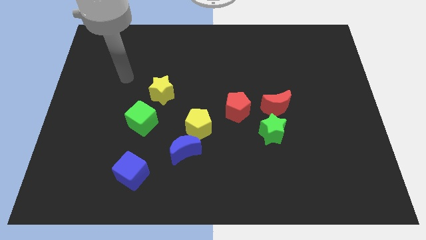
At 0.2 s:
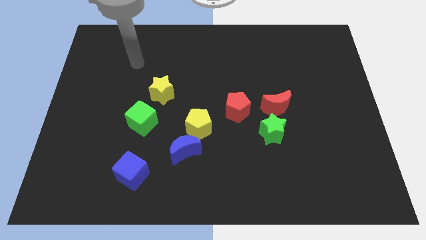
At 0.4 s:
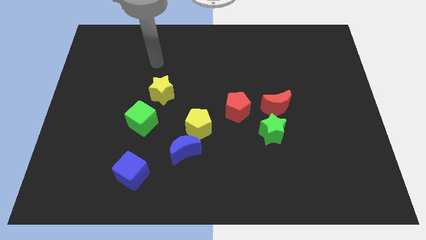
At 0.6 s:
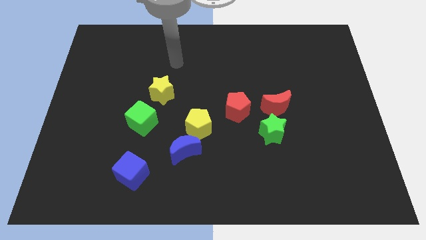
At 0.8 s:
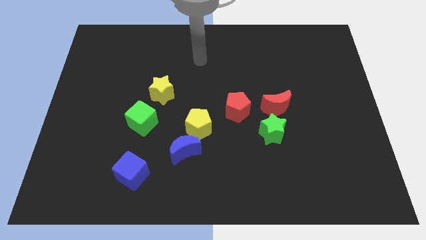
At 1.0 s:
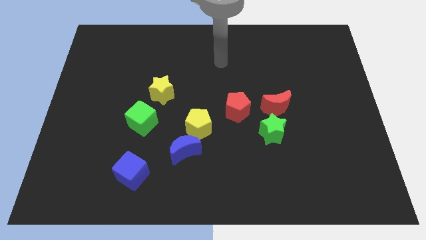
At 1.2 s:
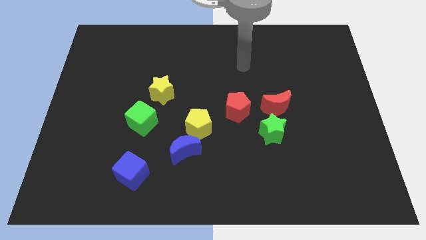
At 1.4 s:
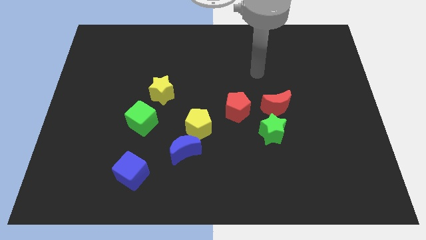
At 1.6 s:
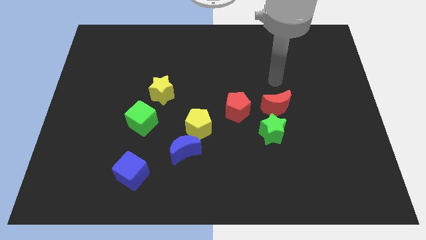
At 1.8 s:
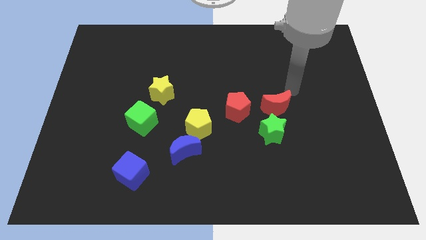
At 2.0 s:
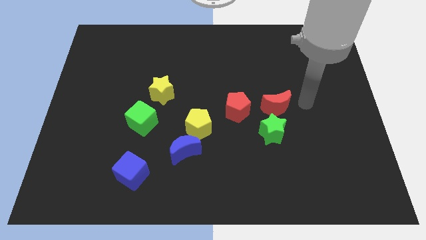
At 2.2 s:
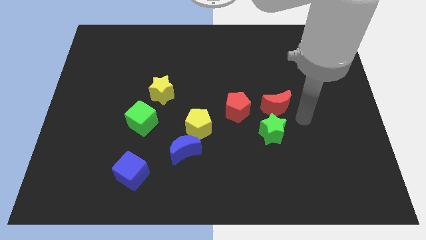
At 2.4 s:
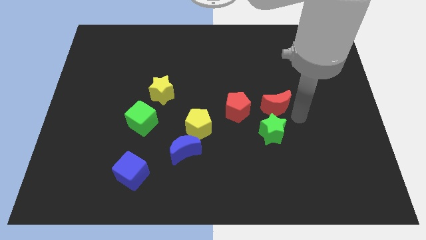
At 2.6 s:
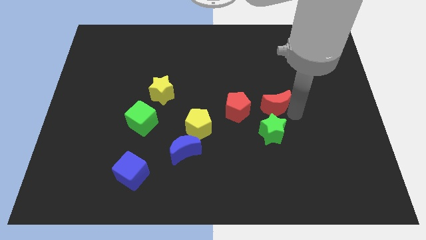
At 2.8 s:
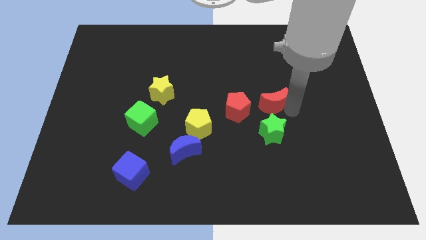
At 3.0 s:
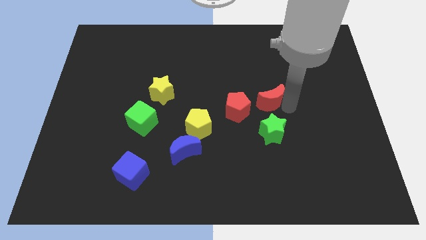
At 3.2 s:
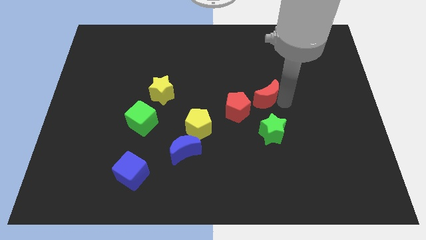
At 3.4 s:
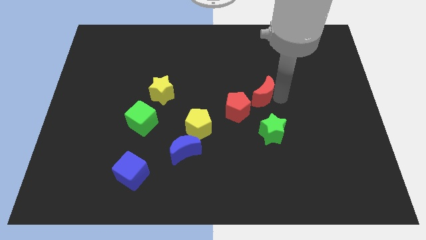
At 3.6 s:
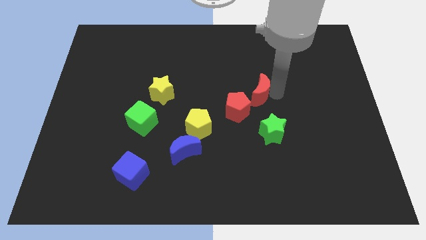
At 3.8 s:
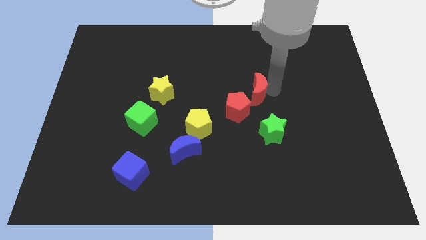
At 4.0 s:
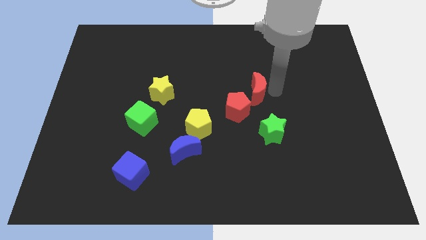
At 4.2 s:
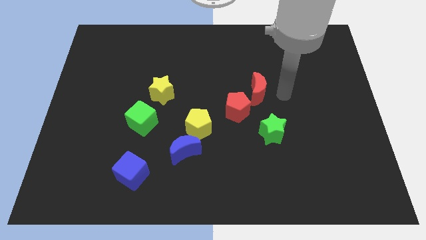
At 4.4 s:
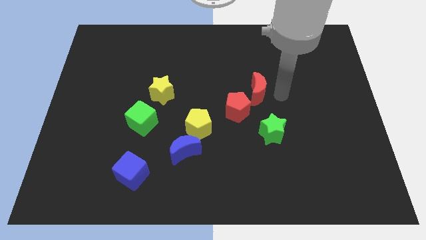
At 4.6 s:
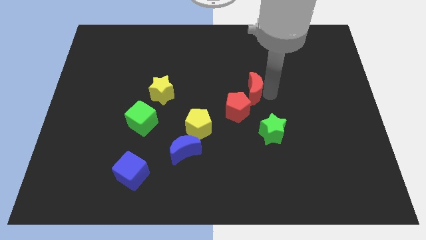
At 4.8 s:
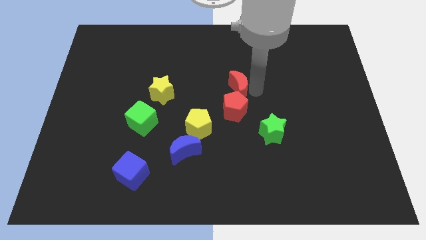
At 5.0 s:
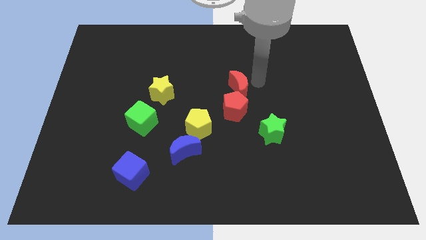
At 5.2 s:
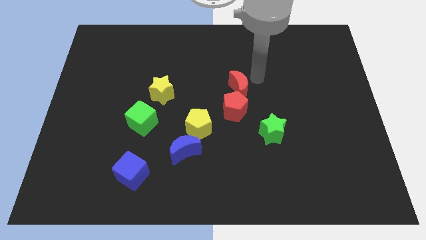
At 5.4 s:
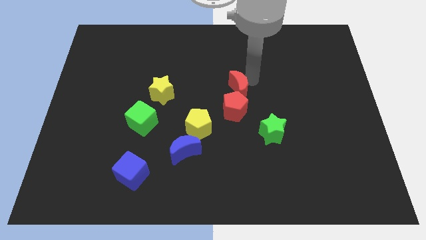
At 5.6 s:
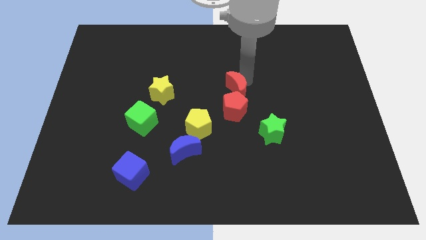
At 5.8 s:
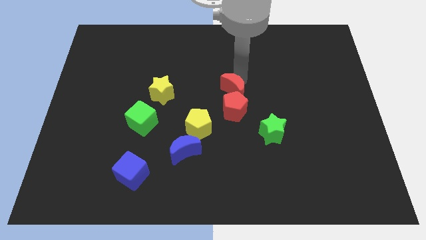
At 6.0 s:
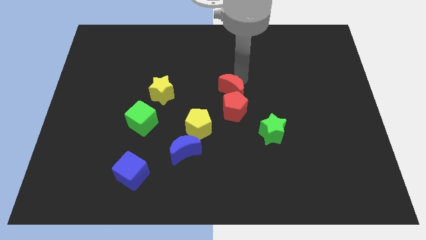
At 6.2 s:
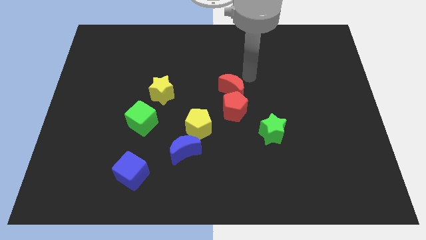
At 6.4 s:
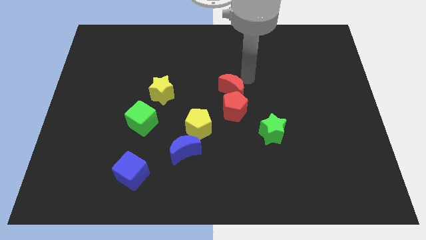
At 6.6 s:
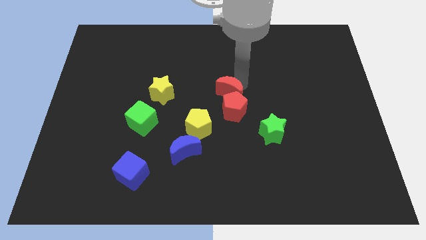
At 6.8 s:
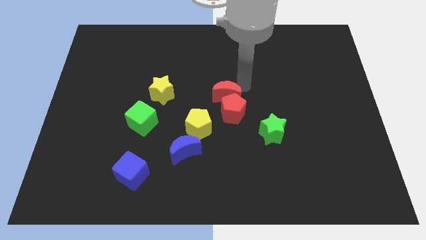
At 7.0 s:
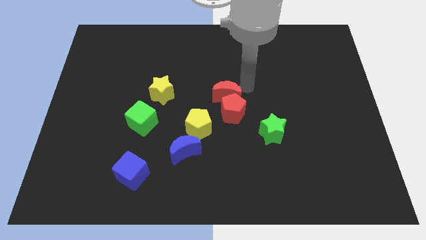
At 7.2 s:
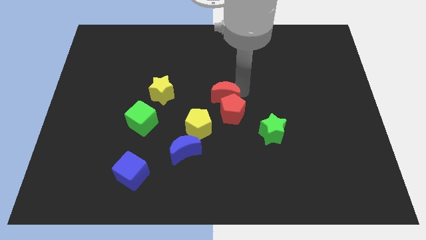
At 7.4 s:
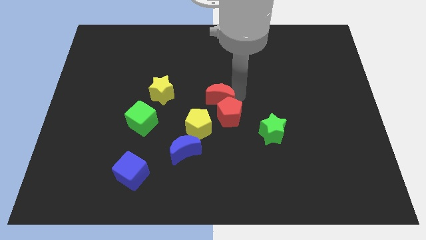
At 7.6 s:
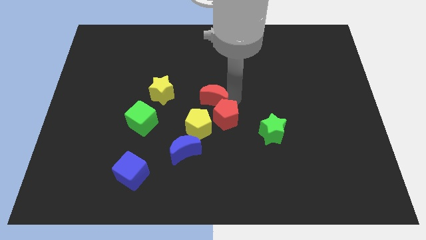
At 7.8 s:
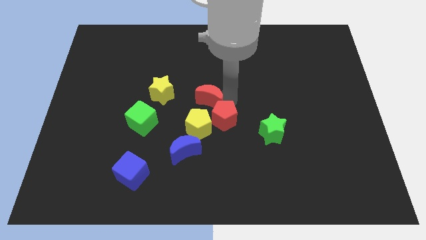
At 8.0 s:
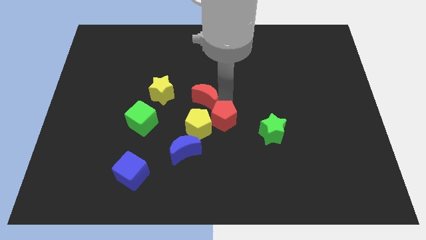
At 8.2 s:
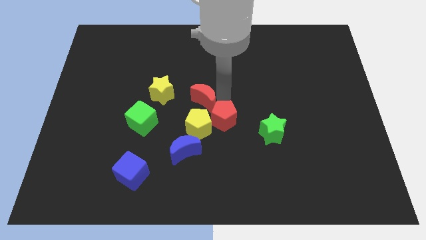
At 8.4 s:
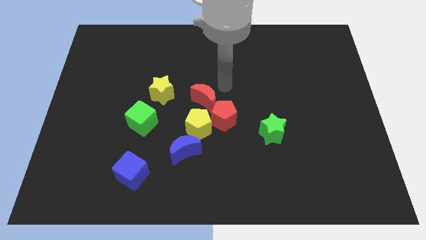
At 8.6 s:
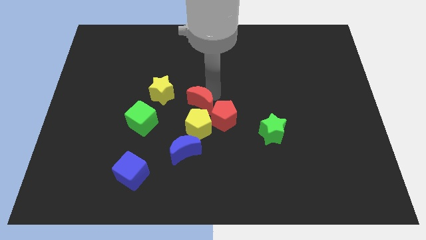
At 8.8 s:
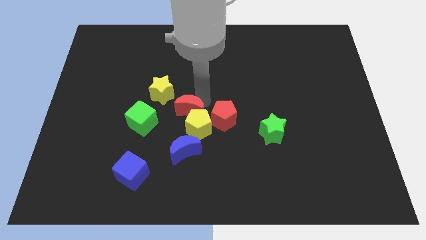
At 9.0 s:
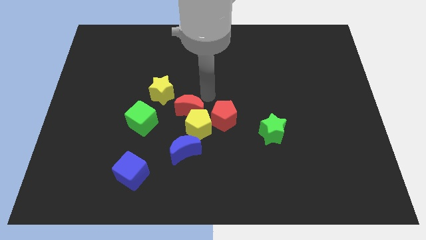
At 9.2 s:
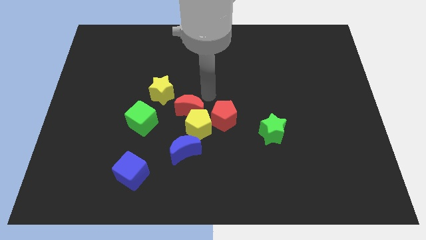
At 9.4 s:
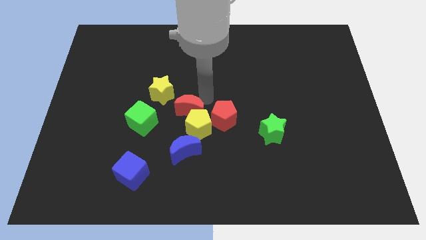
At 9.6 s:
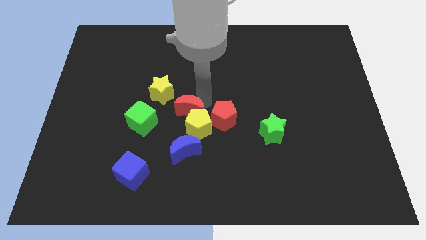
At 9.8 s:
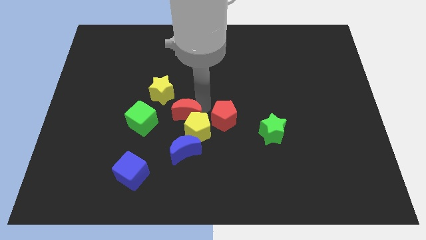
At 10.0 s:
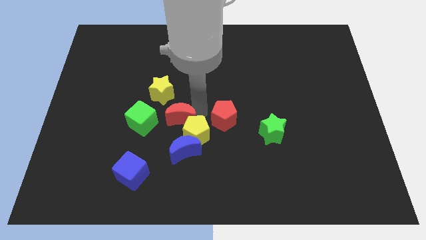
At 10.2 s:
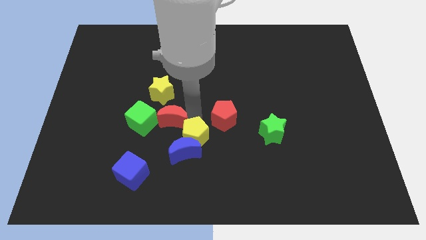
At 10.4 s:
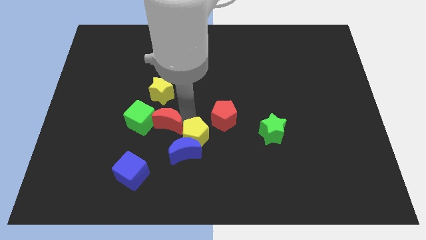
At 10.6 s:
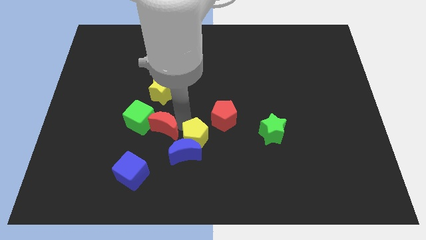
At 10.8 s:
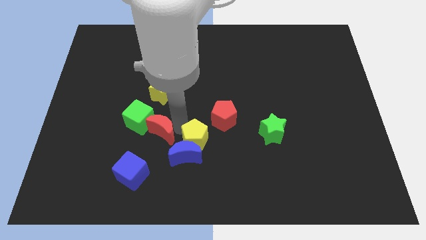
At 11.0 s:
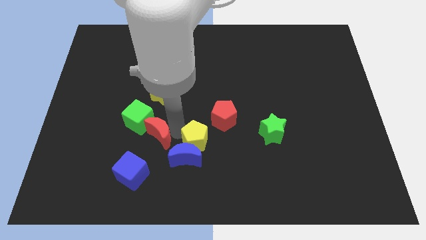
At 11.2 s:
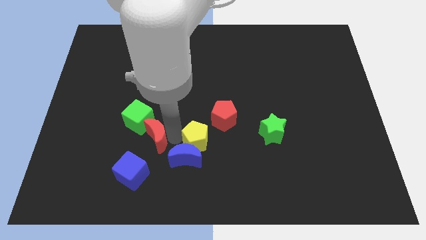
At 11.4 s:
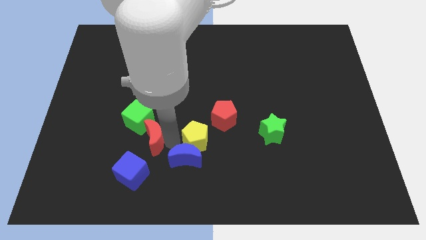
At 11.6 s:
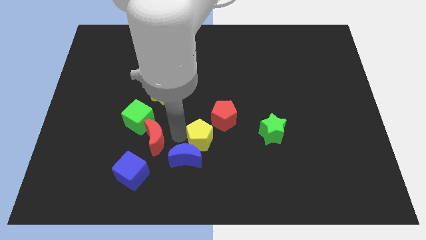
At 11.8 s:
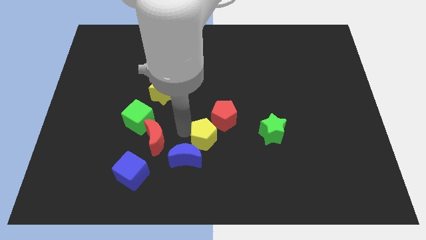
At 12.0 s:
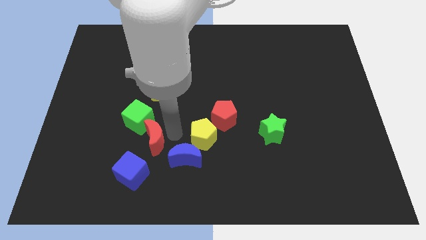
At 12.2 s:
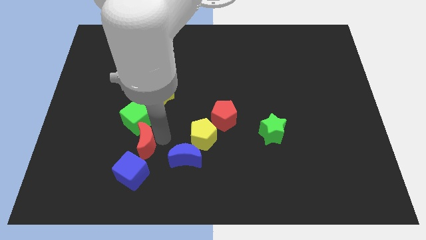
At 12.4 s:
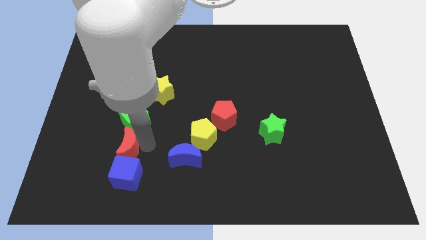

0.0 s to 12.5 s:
push the red moon to the top left side of the blue cube

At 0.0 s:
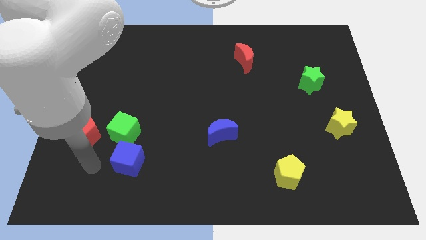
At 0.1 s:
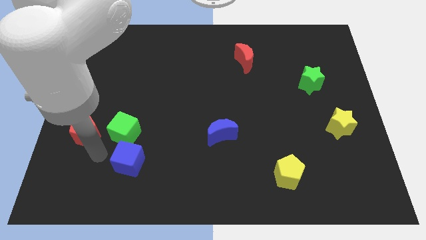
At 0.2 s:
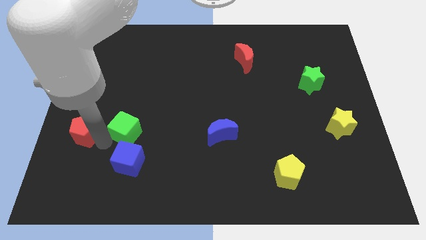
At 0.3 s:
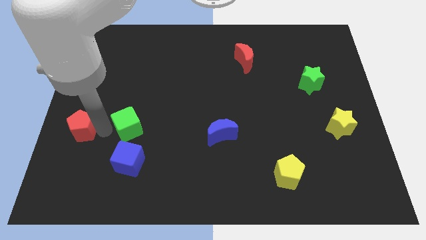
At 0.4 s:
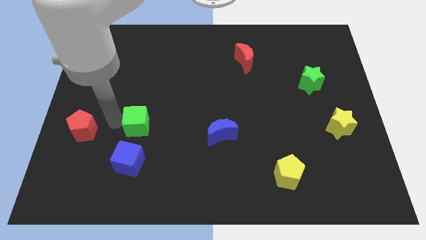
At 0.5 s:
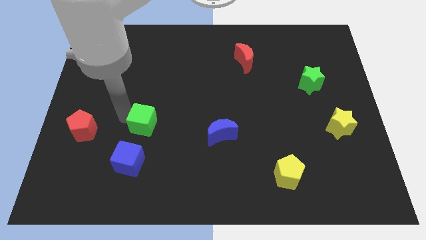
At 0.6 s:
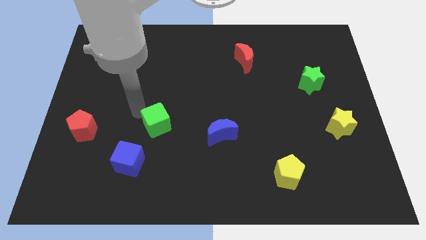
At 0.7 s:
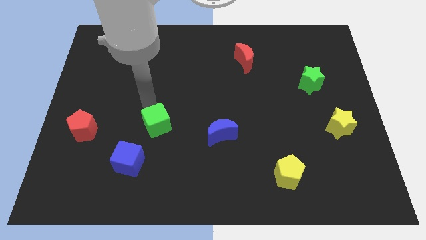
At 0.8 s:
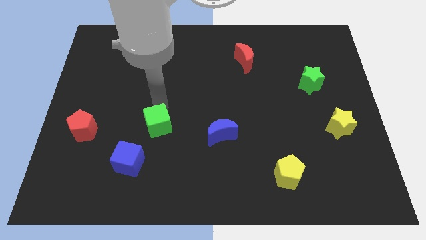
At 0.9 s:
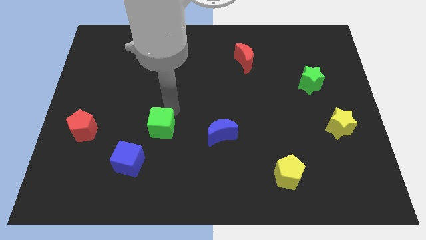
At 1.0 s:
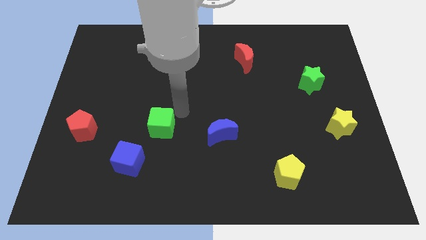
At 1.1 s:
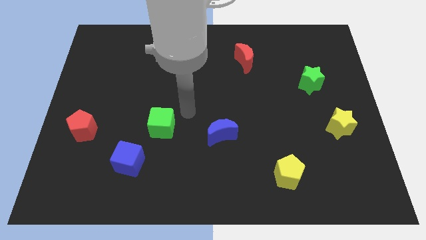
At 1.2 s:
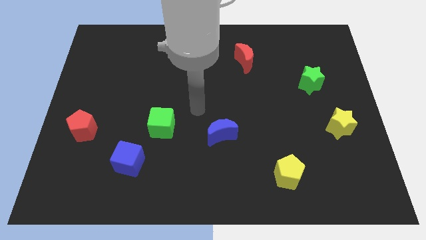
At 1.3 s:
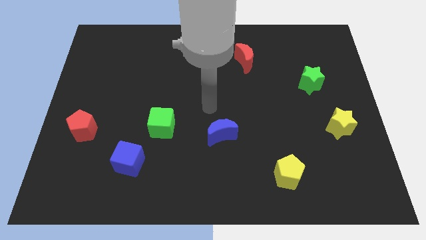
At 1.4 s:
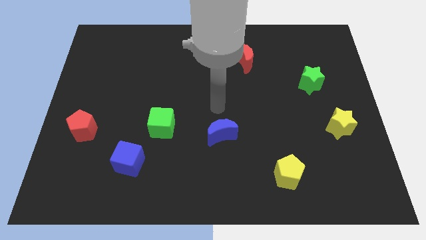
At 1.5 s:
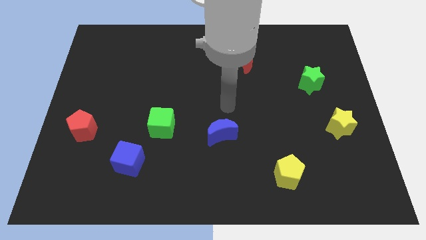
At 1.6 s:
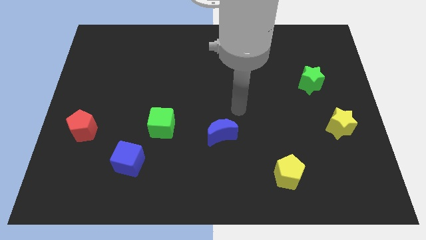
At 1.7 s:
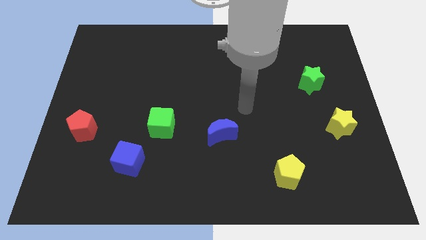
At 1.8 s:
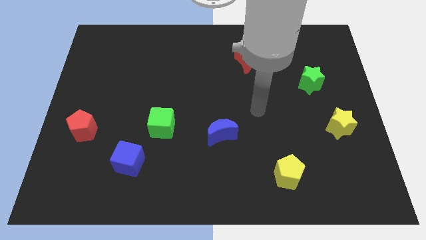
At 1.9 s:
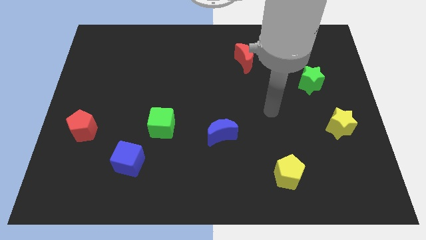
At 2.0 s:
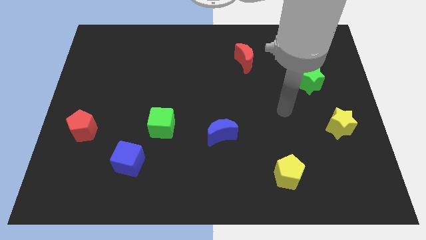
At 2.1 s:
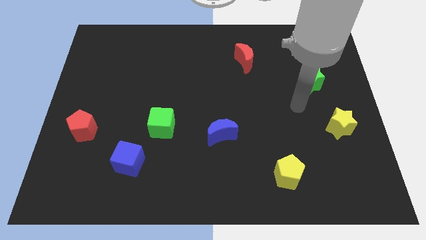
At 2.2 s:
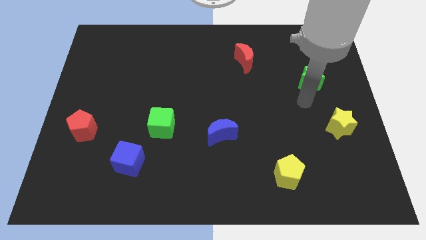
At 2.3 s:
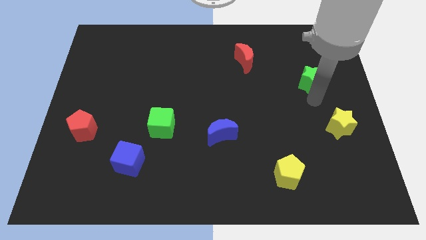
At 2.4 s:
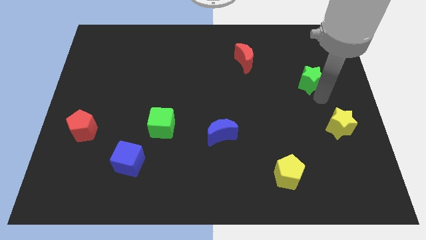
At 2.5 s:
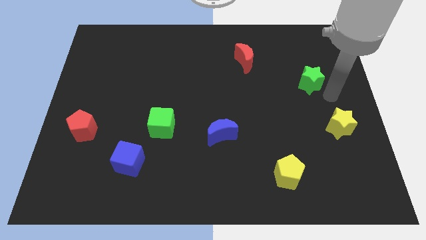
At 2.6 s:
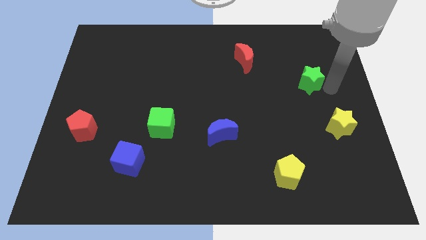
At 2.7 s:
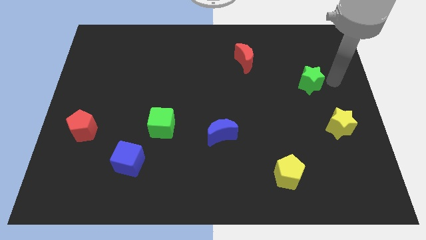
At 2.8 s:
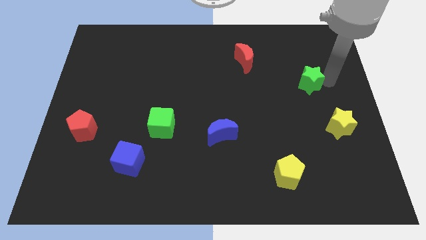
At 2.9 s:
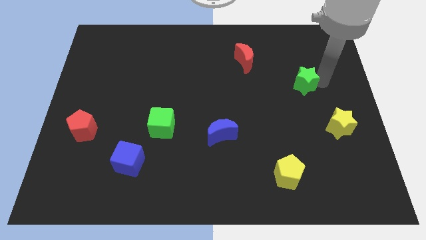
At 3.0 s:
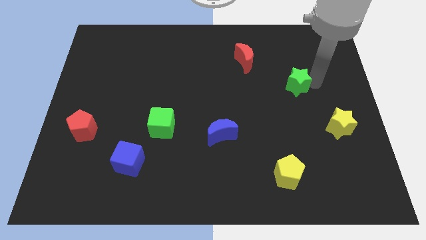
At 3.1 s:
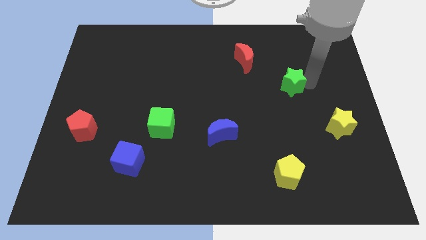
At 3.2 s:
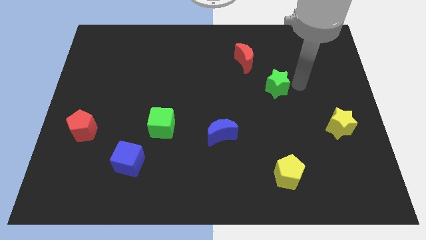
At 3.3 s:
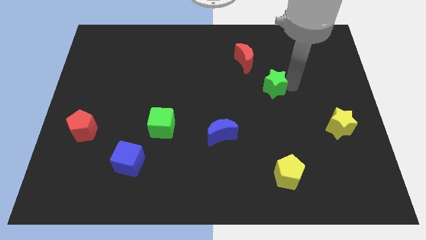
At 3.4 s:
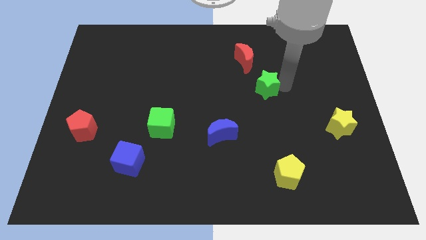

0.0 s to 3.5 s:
move the green star below the red moon
